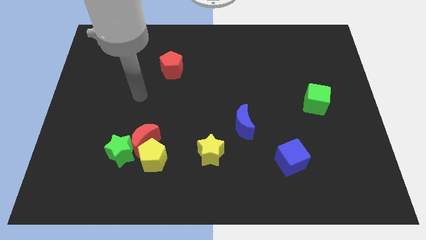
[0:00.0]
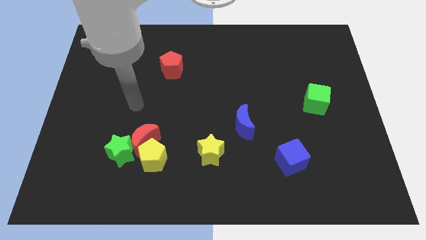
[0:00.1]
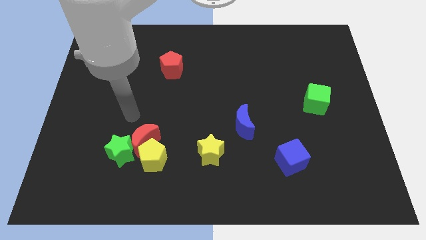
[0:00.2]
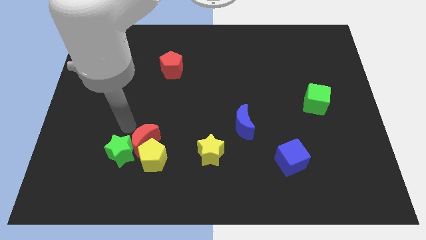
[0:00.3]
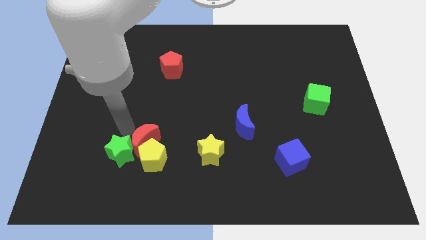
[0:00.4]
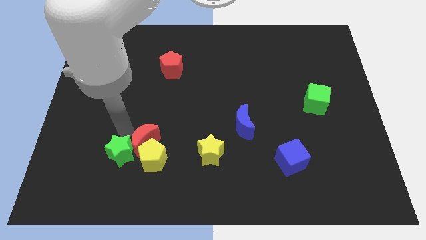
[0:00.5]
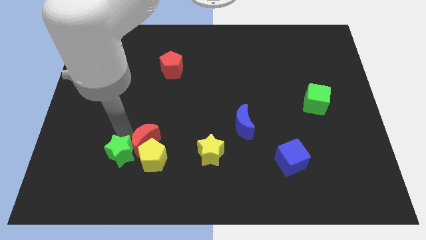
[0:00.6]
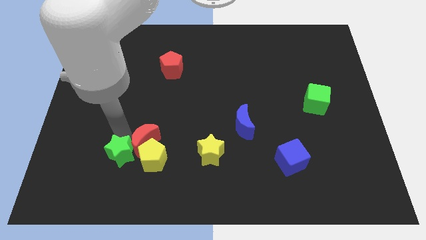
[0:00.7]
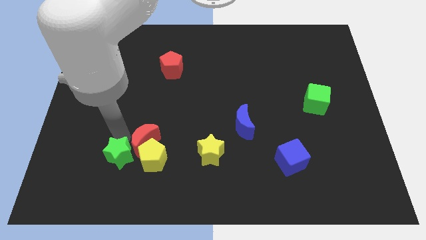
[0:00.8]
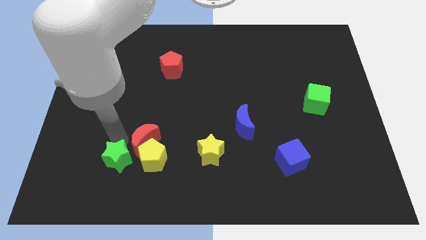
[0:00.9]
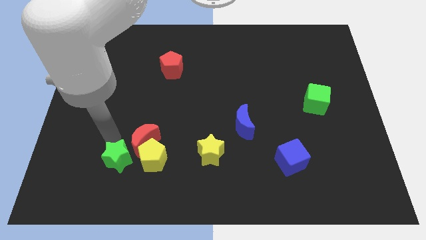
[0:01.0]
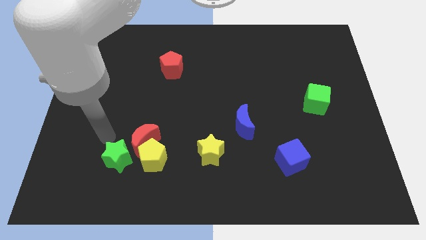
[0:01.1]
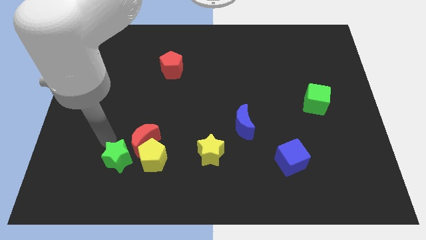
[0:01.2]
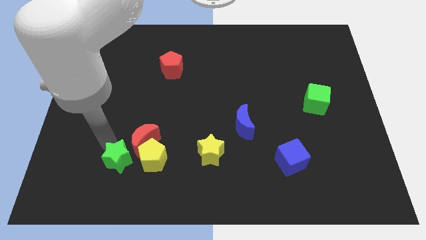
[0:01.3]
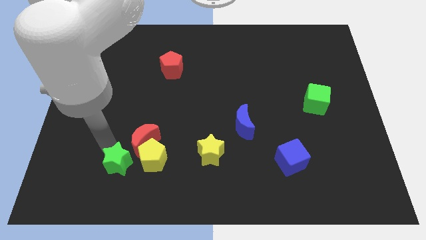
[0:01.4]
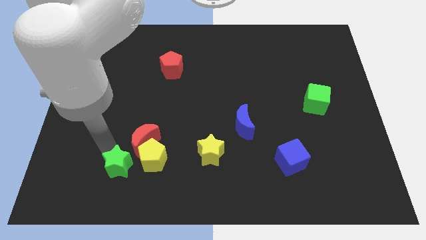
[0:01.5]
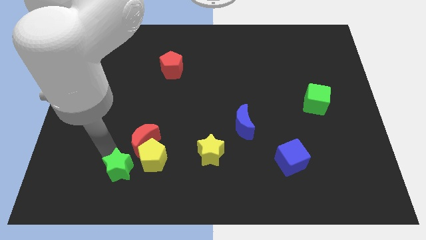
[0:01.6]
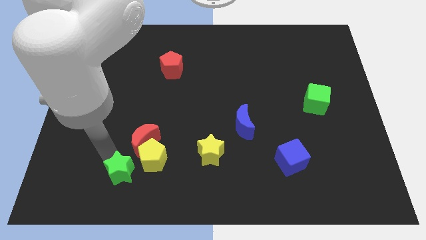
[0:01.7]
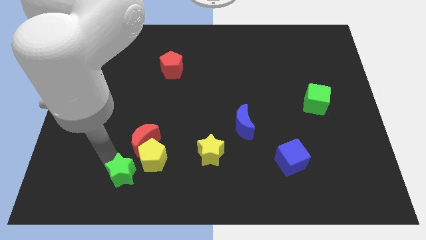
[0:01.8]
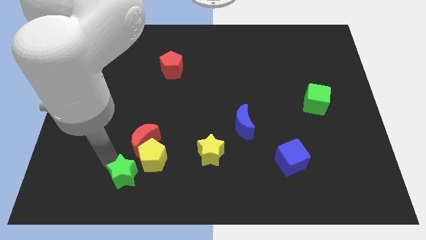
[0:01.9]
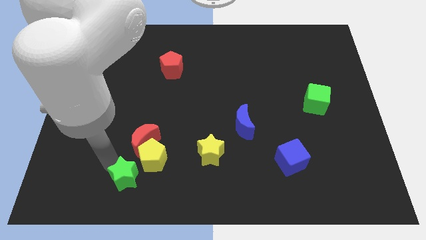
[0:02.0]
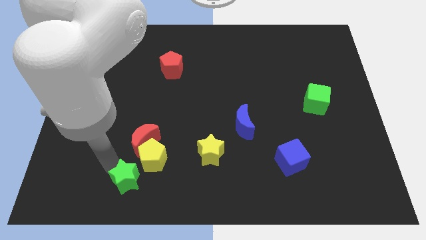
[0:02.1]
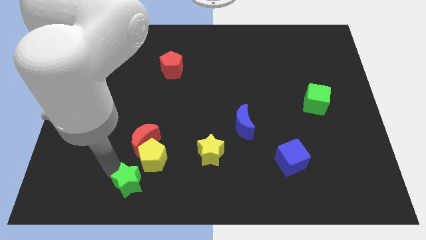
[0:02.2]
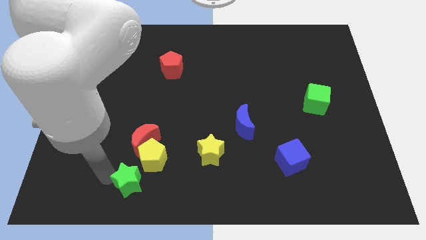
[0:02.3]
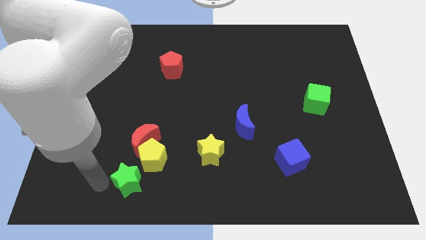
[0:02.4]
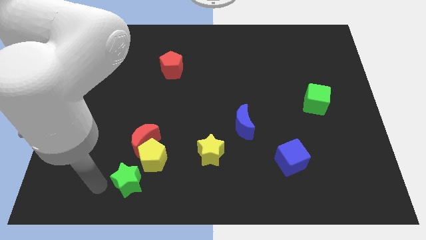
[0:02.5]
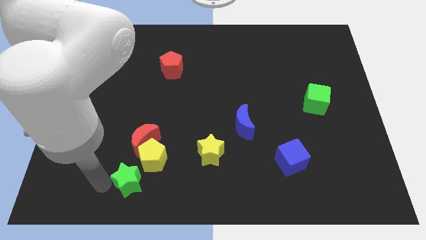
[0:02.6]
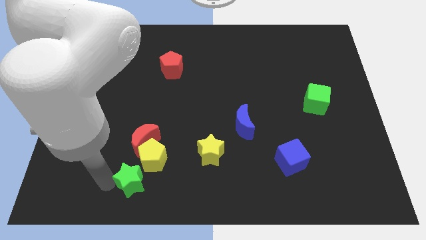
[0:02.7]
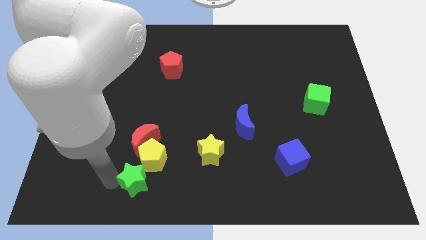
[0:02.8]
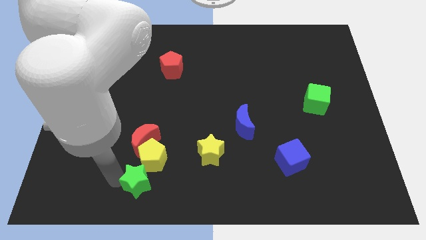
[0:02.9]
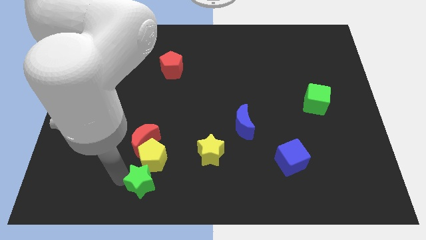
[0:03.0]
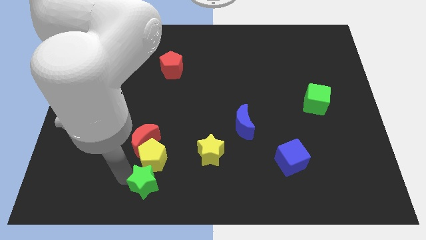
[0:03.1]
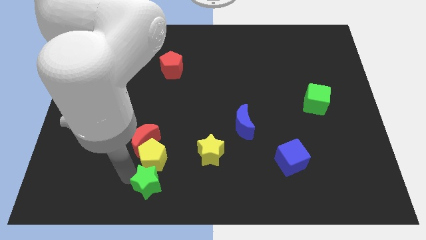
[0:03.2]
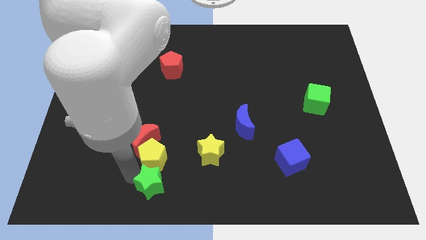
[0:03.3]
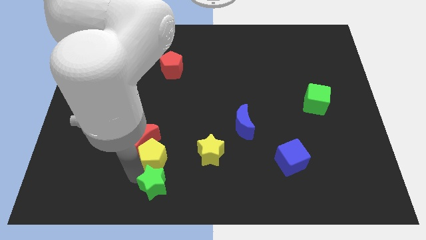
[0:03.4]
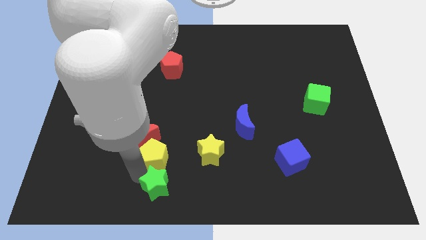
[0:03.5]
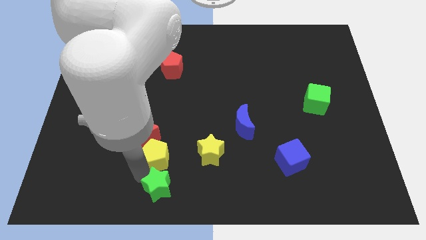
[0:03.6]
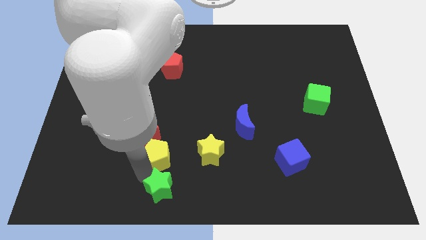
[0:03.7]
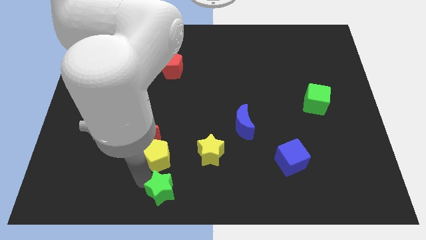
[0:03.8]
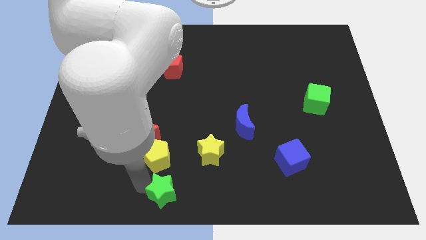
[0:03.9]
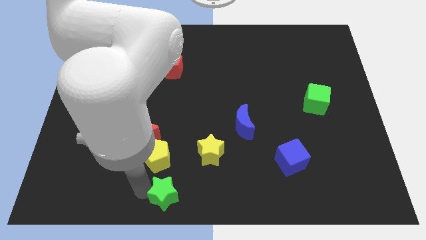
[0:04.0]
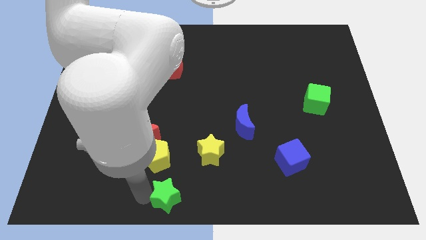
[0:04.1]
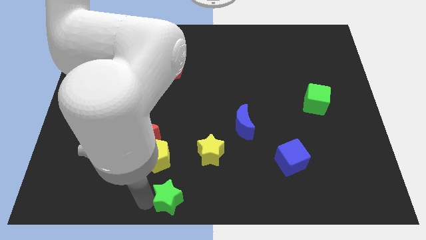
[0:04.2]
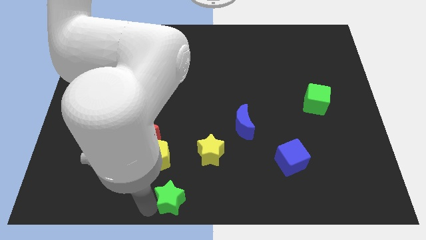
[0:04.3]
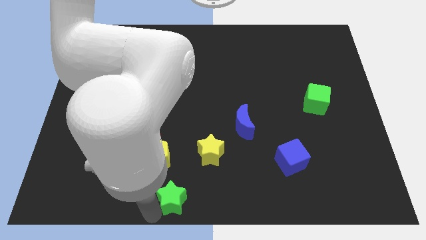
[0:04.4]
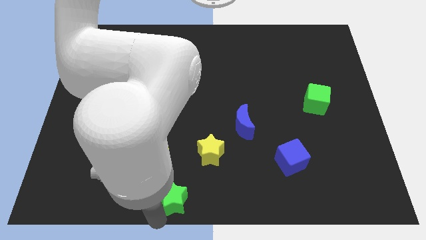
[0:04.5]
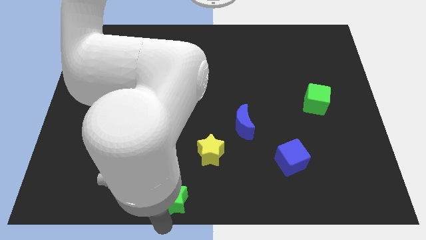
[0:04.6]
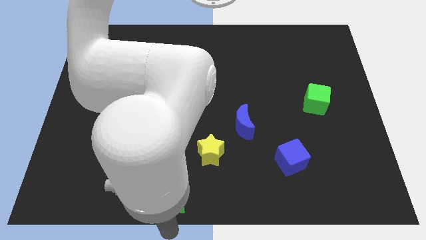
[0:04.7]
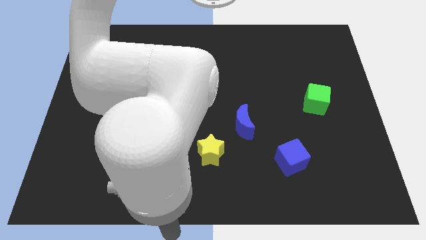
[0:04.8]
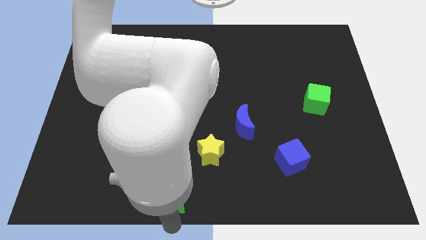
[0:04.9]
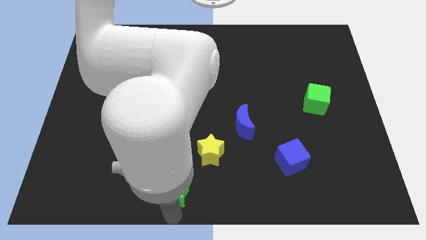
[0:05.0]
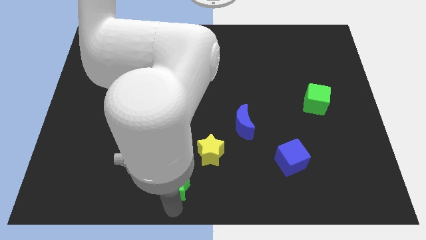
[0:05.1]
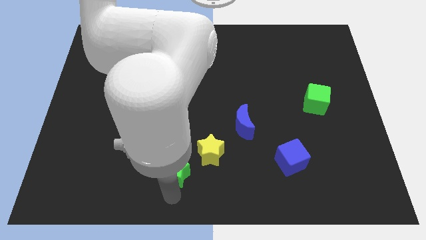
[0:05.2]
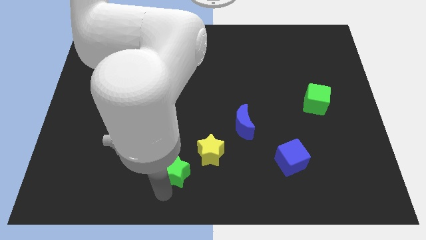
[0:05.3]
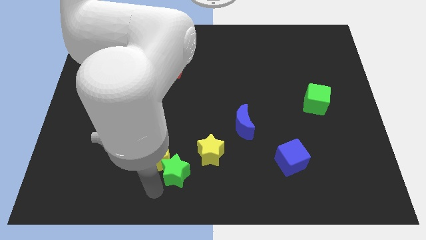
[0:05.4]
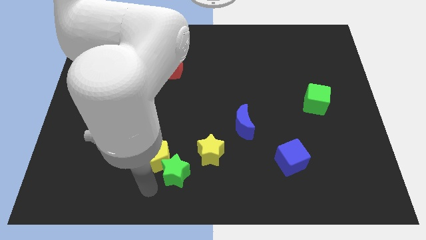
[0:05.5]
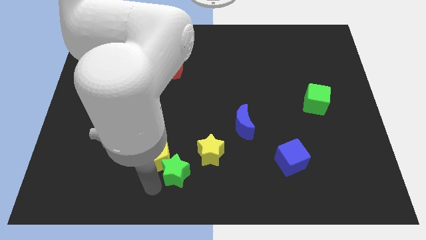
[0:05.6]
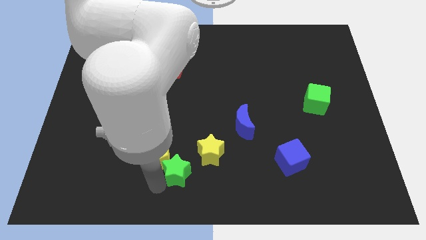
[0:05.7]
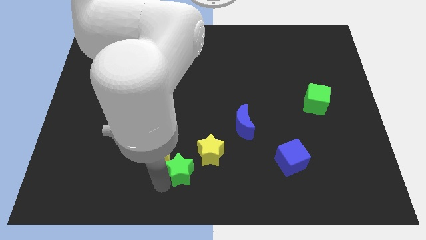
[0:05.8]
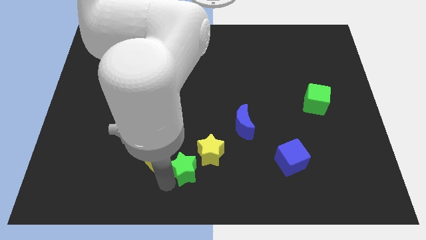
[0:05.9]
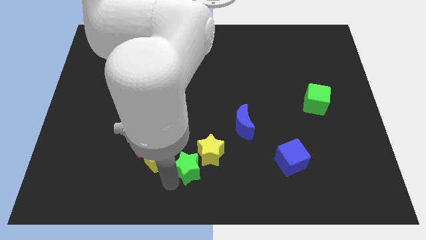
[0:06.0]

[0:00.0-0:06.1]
move the green star close to the yellow star

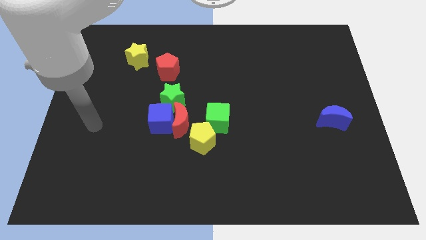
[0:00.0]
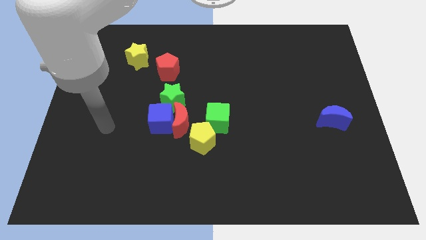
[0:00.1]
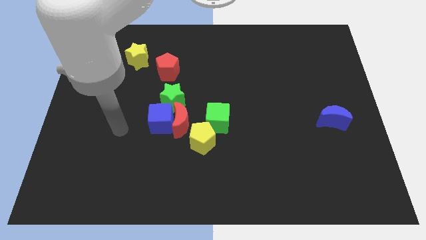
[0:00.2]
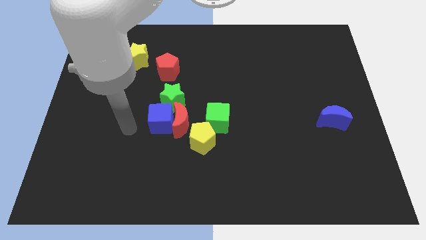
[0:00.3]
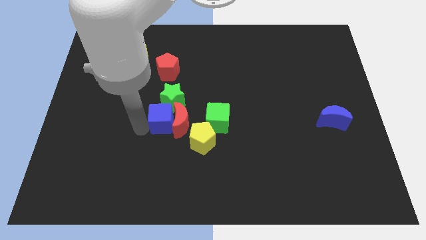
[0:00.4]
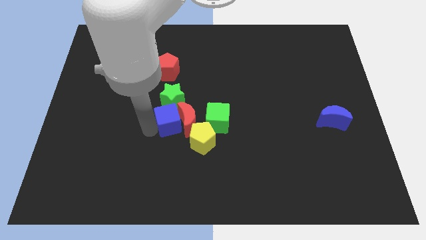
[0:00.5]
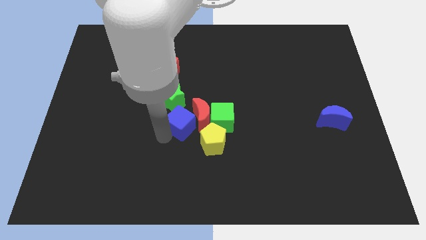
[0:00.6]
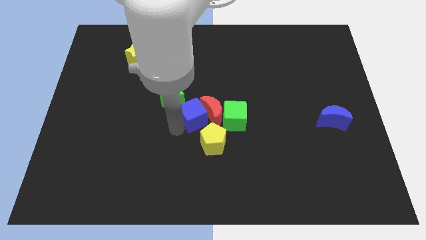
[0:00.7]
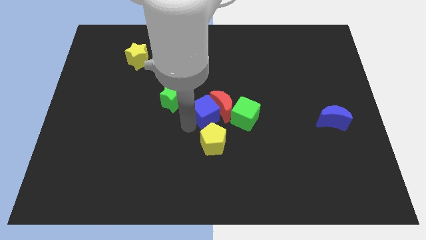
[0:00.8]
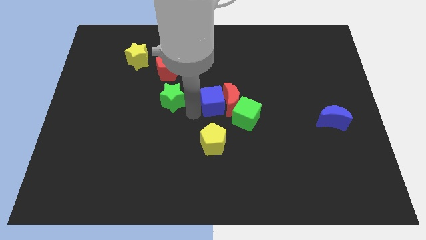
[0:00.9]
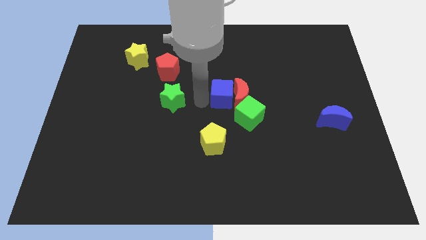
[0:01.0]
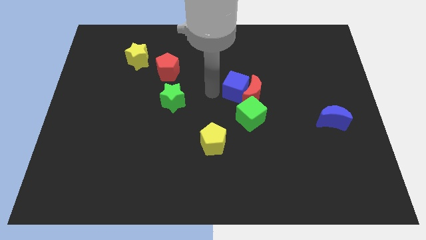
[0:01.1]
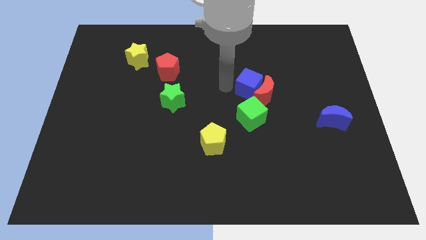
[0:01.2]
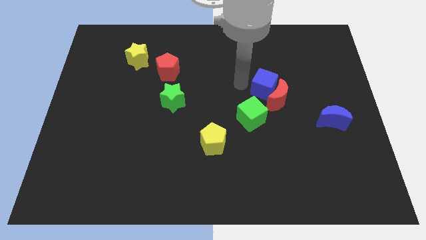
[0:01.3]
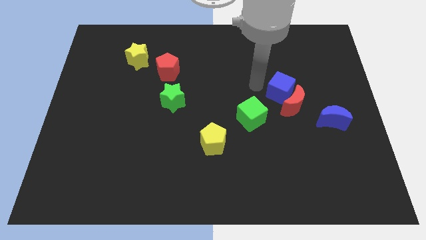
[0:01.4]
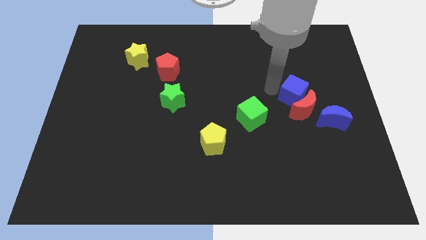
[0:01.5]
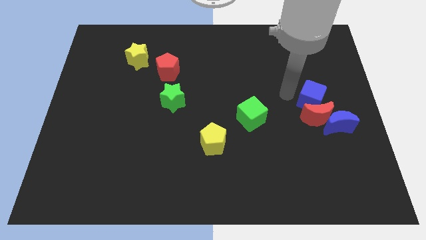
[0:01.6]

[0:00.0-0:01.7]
put the red moon close to the blue moon

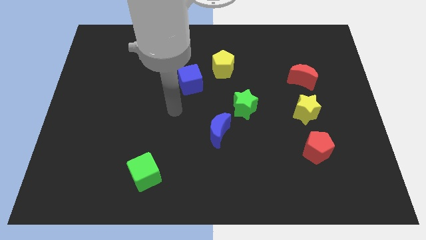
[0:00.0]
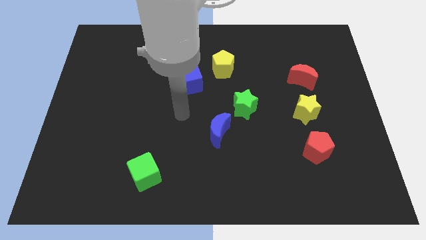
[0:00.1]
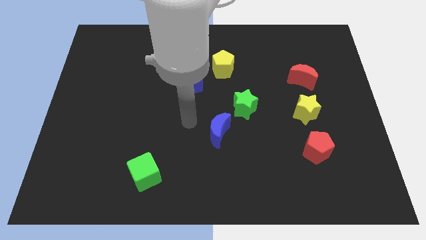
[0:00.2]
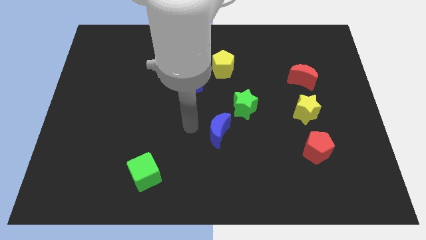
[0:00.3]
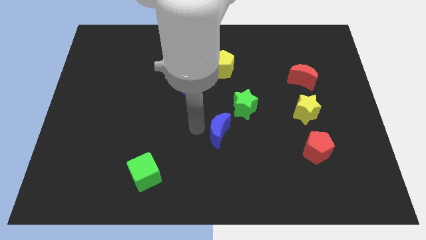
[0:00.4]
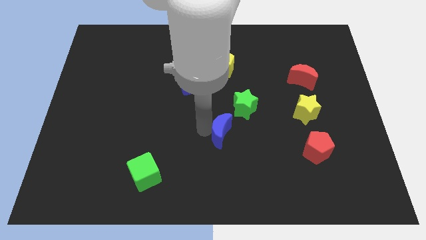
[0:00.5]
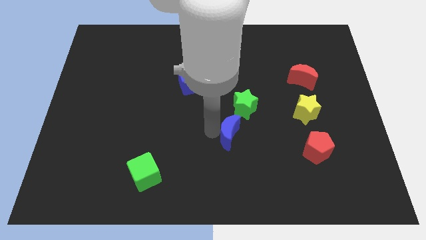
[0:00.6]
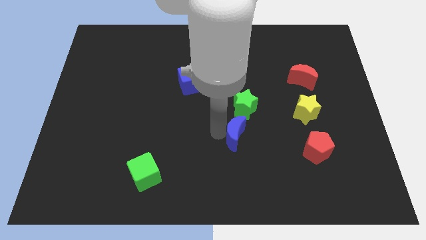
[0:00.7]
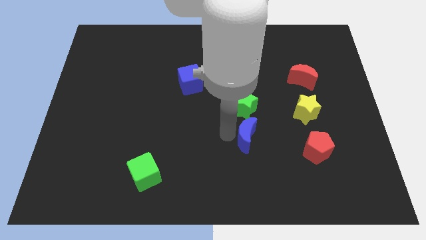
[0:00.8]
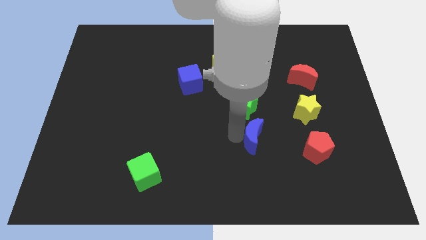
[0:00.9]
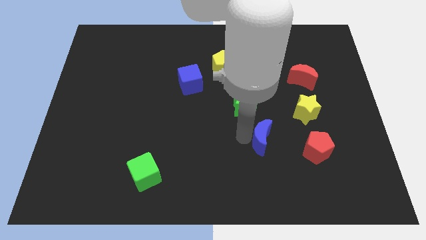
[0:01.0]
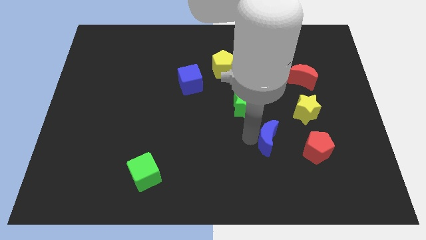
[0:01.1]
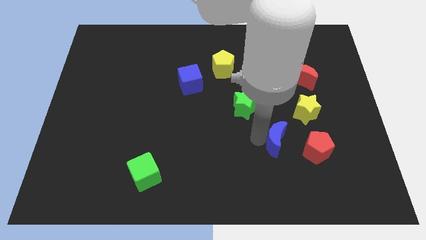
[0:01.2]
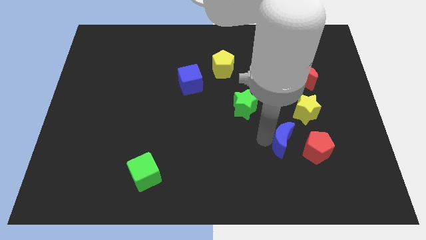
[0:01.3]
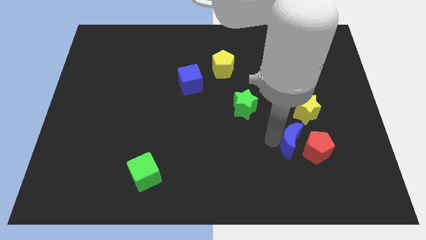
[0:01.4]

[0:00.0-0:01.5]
slide the blue moon to the red pentagon
